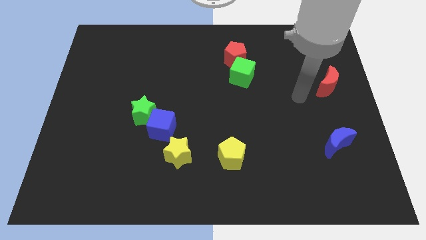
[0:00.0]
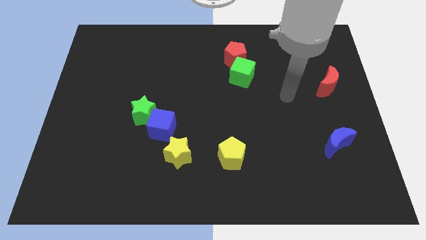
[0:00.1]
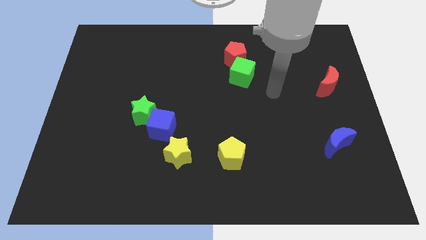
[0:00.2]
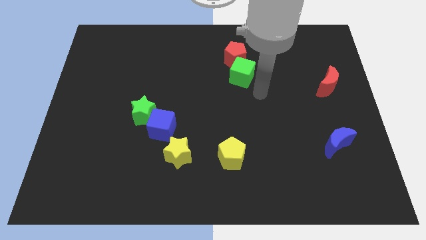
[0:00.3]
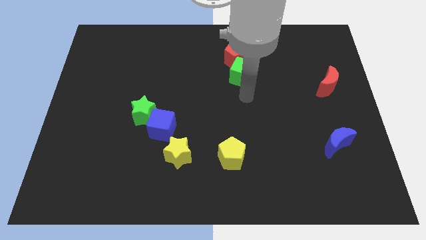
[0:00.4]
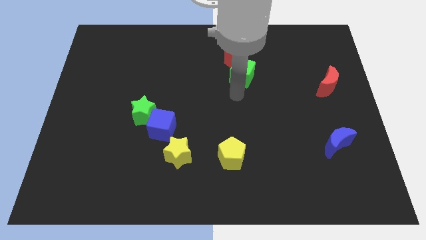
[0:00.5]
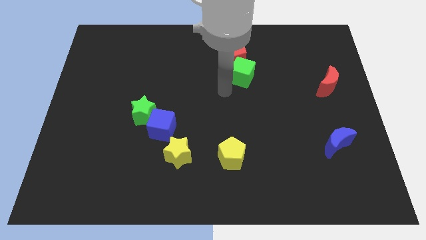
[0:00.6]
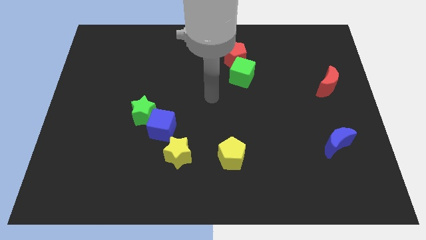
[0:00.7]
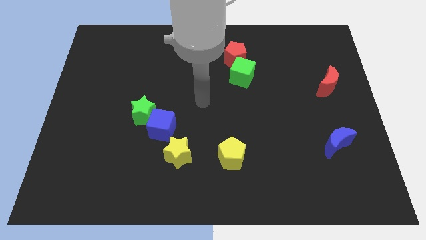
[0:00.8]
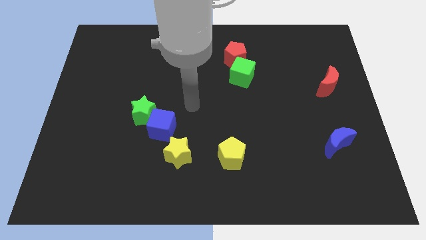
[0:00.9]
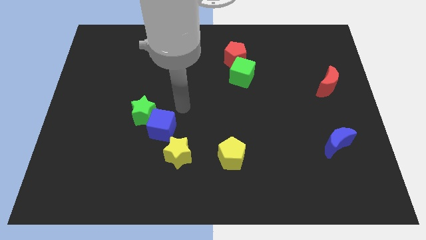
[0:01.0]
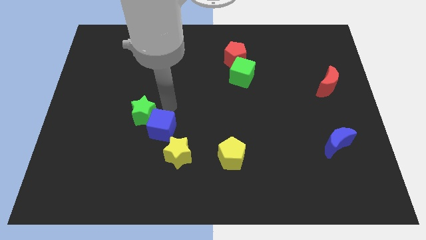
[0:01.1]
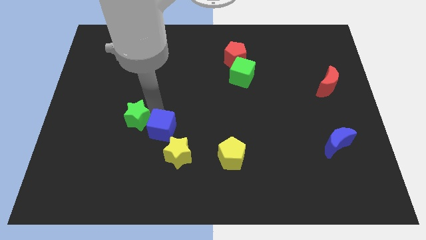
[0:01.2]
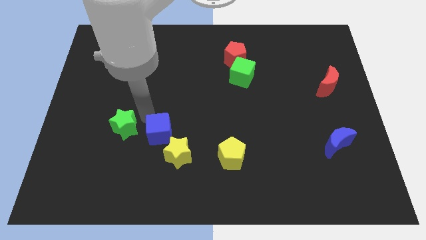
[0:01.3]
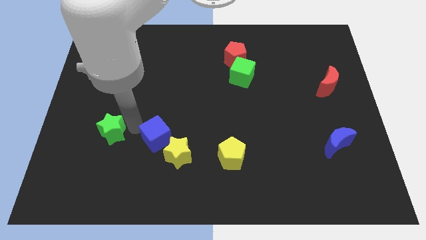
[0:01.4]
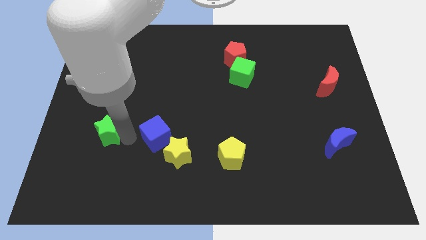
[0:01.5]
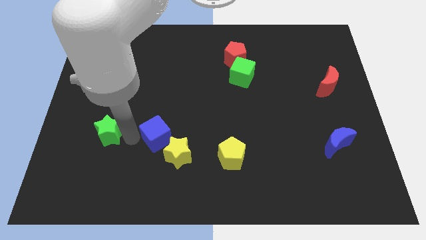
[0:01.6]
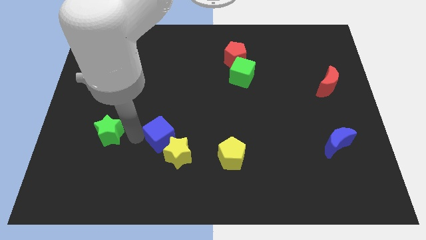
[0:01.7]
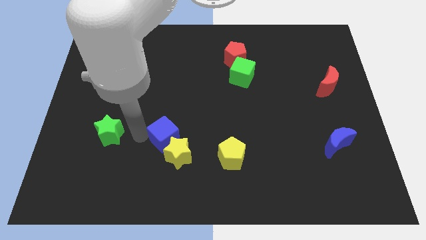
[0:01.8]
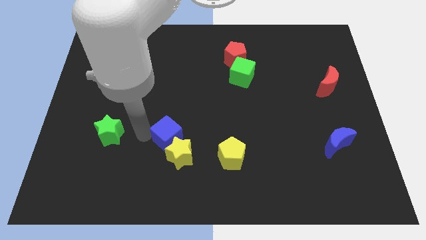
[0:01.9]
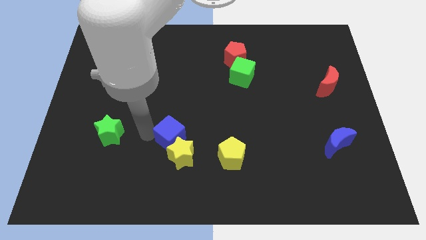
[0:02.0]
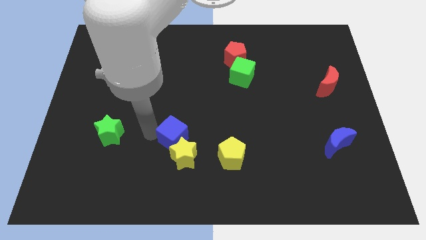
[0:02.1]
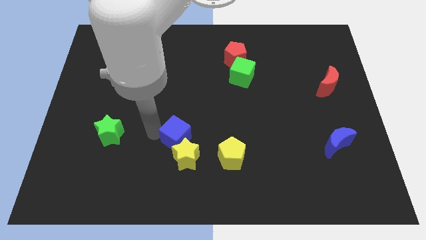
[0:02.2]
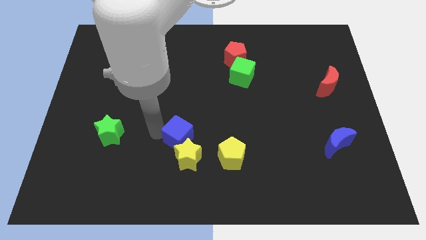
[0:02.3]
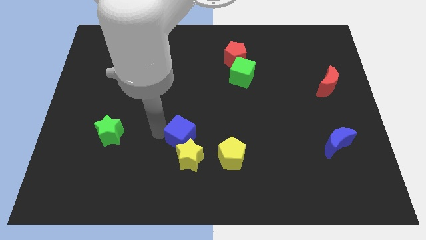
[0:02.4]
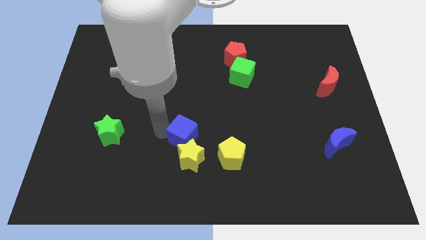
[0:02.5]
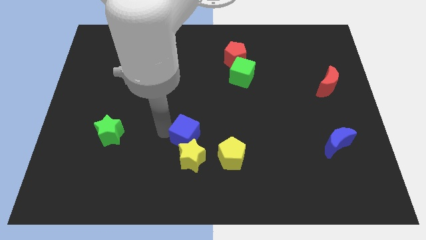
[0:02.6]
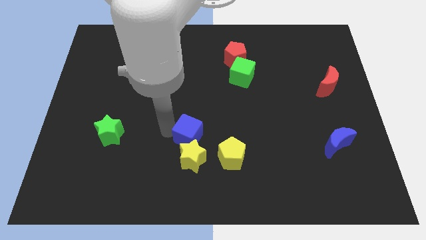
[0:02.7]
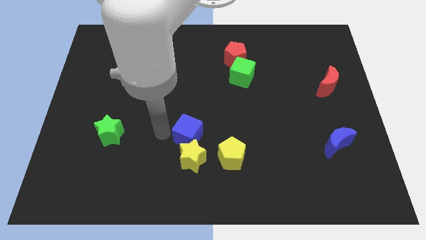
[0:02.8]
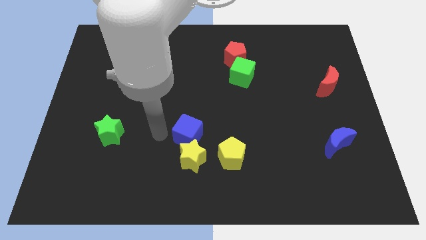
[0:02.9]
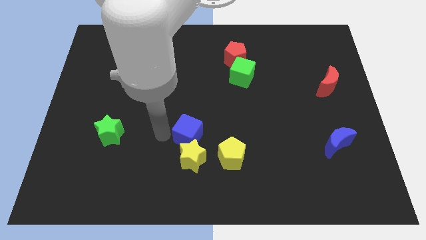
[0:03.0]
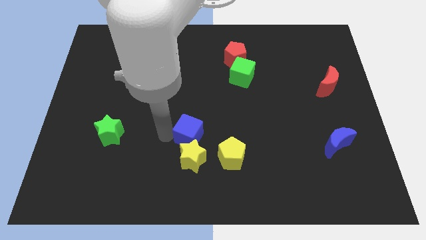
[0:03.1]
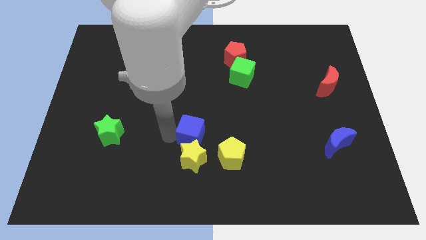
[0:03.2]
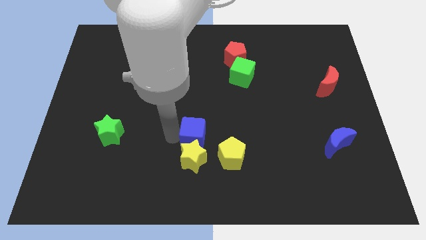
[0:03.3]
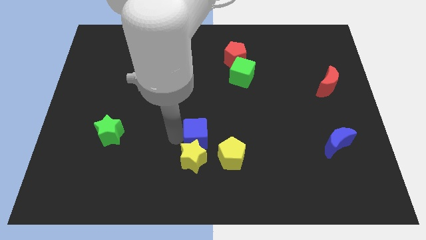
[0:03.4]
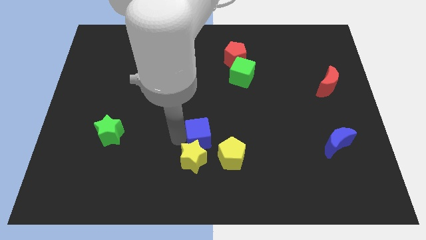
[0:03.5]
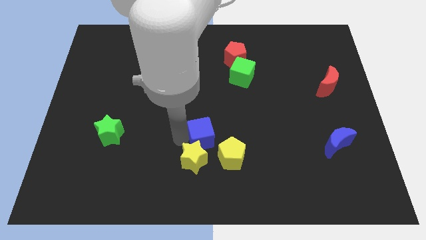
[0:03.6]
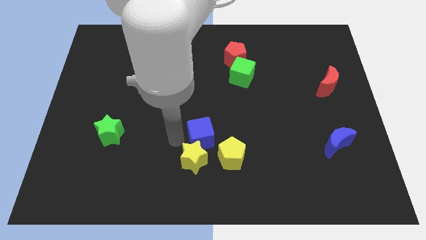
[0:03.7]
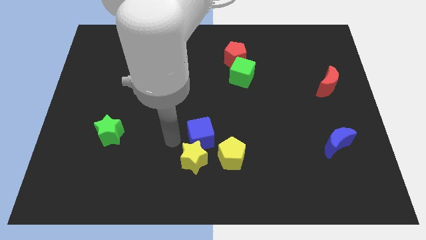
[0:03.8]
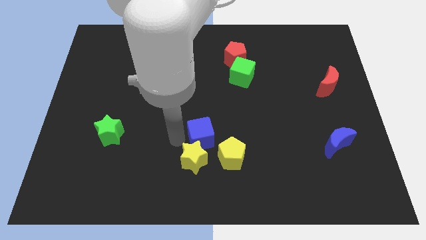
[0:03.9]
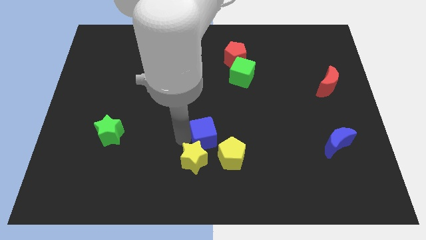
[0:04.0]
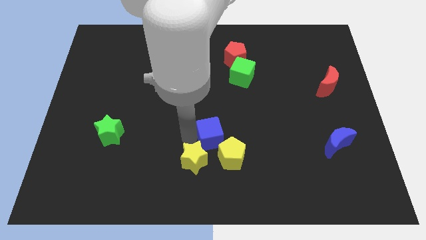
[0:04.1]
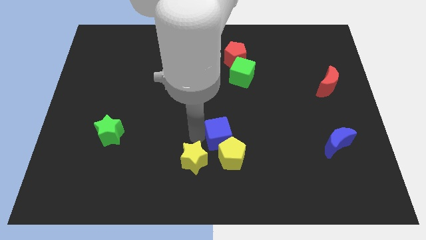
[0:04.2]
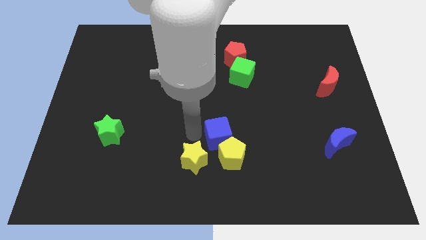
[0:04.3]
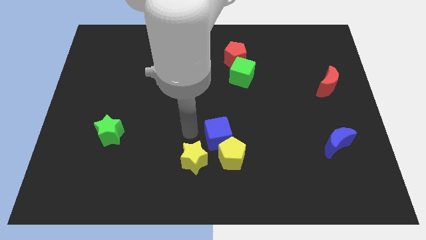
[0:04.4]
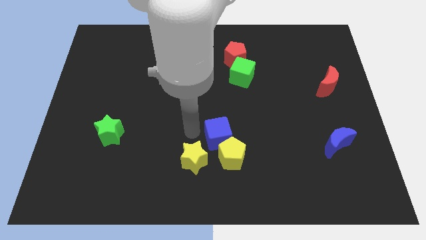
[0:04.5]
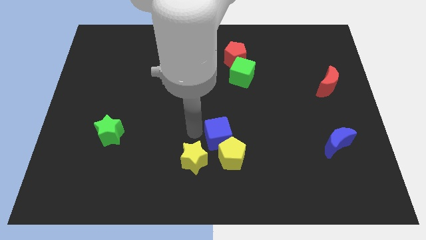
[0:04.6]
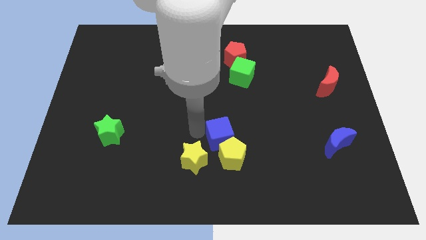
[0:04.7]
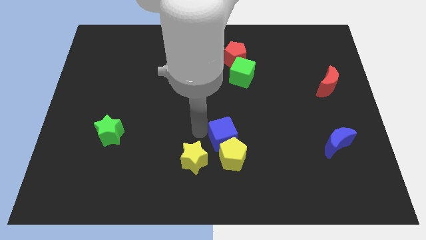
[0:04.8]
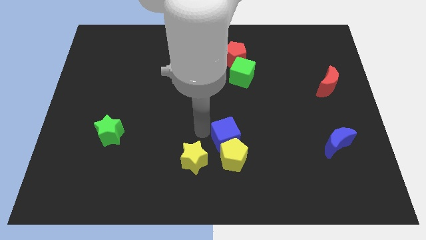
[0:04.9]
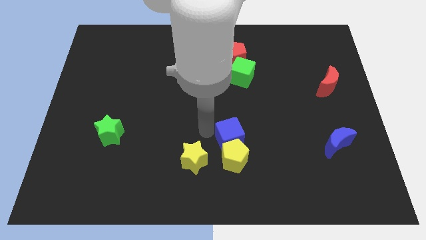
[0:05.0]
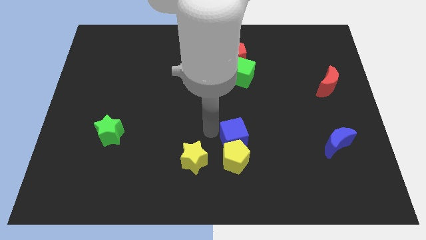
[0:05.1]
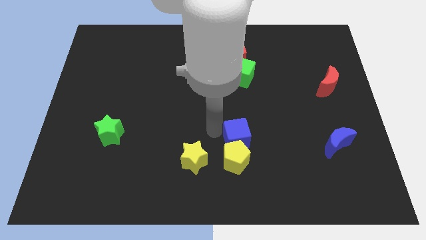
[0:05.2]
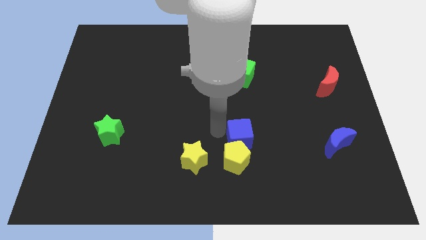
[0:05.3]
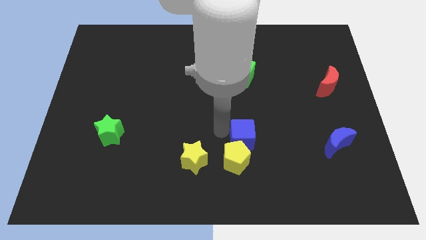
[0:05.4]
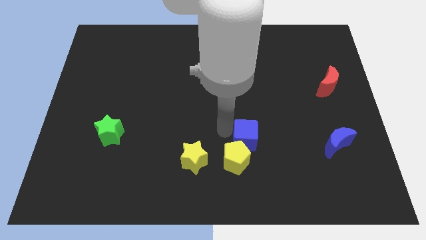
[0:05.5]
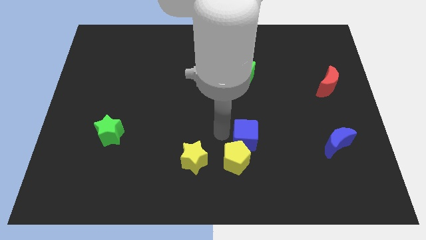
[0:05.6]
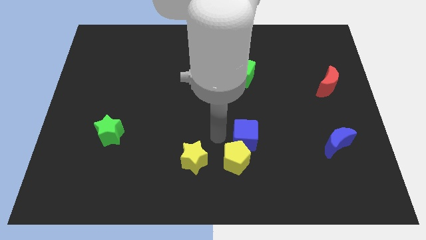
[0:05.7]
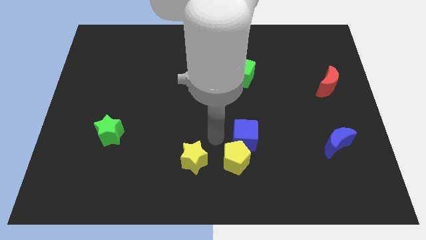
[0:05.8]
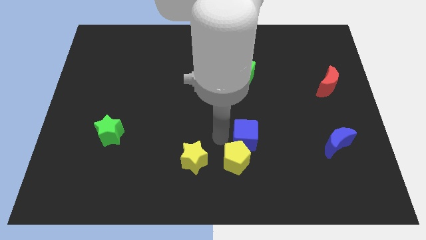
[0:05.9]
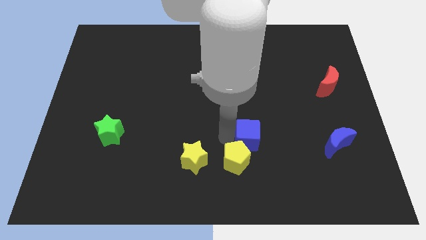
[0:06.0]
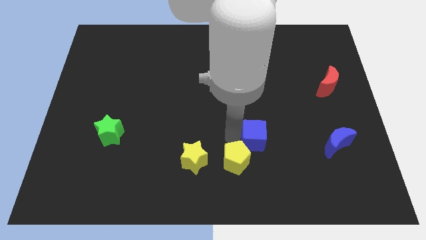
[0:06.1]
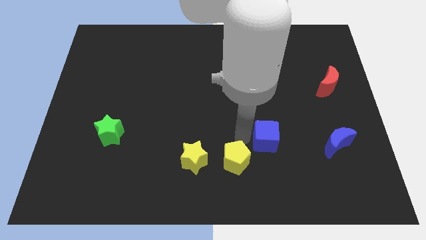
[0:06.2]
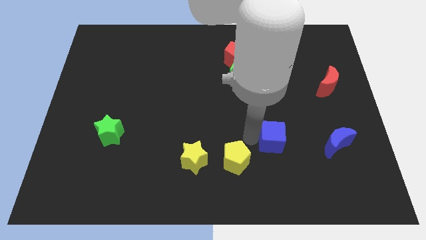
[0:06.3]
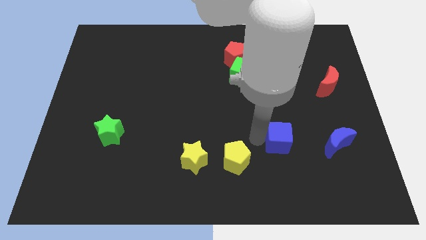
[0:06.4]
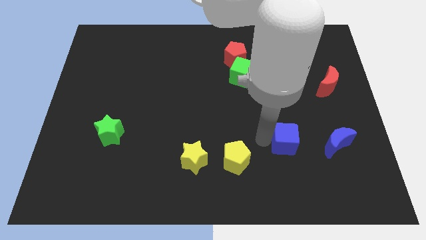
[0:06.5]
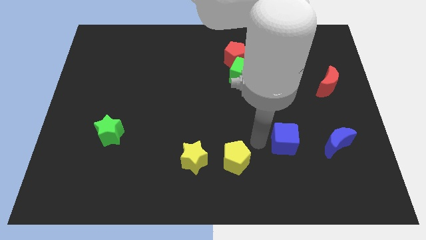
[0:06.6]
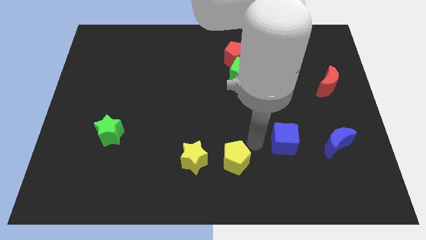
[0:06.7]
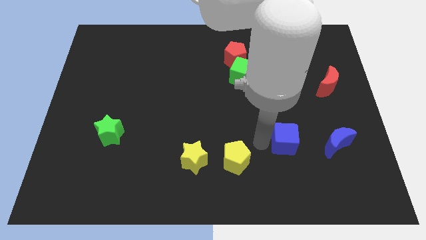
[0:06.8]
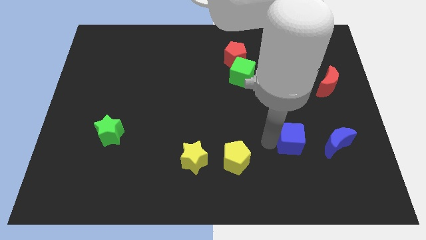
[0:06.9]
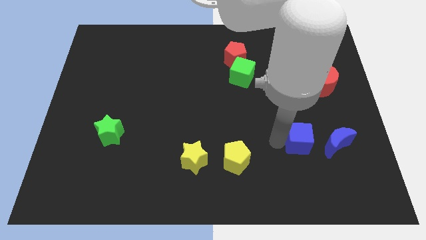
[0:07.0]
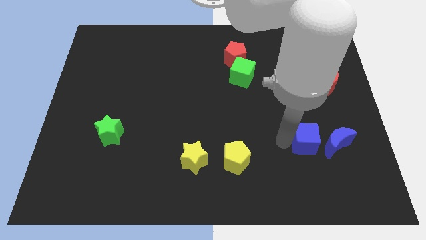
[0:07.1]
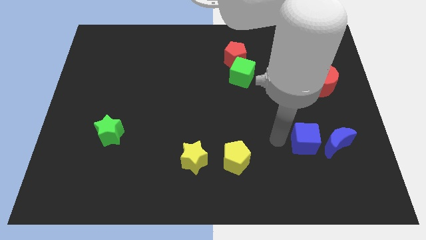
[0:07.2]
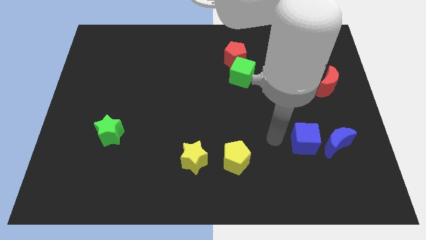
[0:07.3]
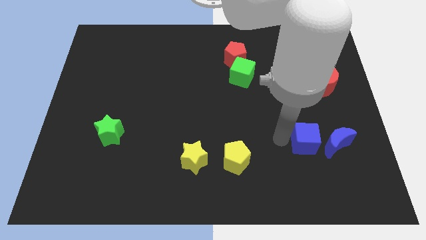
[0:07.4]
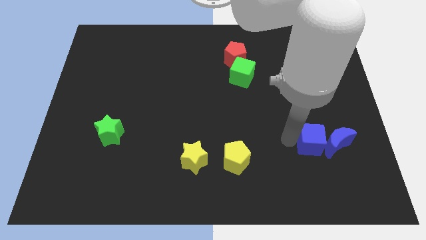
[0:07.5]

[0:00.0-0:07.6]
put the blue cube to the blue moon
